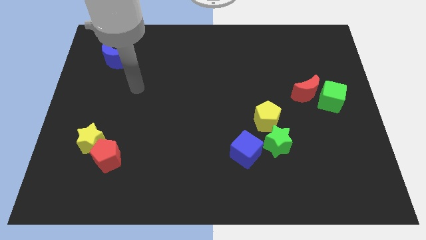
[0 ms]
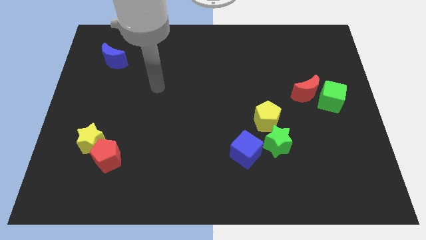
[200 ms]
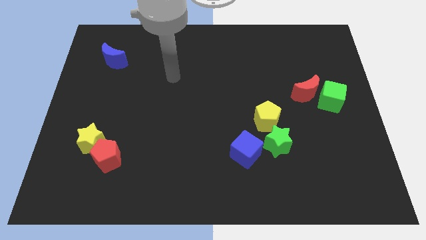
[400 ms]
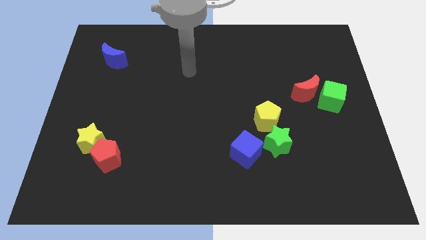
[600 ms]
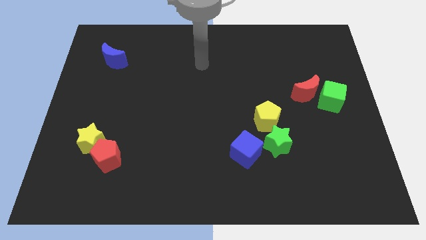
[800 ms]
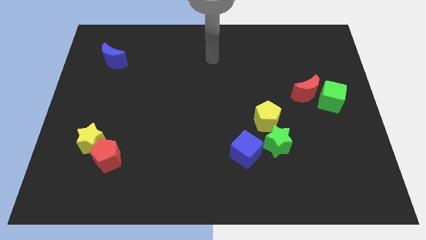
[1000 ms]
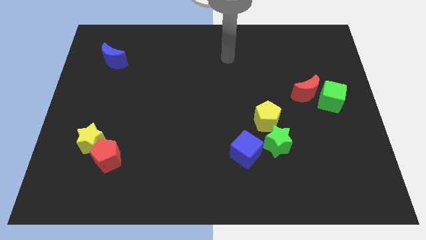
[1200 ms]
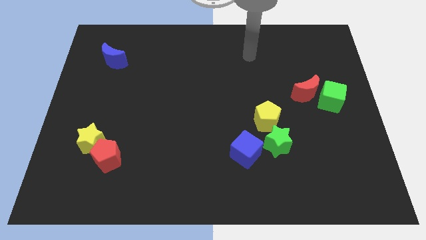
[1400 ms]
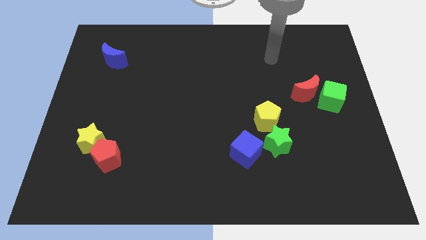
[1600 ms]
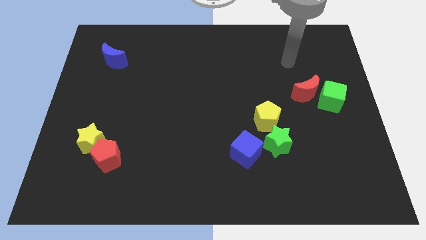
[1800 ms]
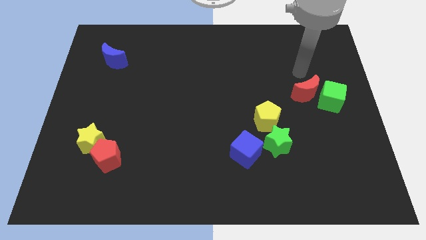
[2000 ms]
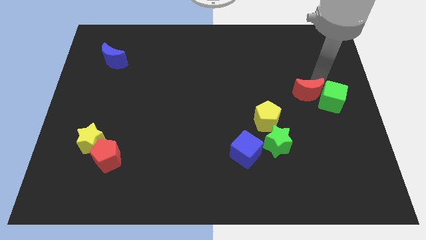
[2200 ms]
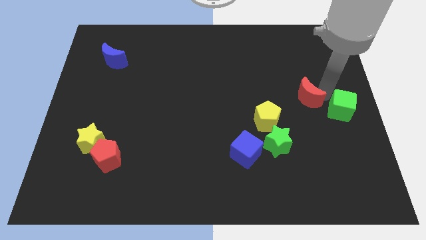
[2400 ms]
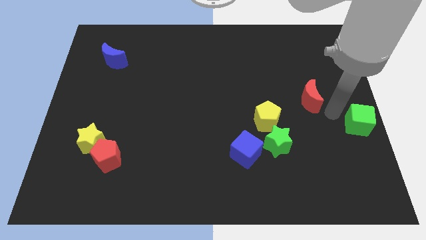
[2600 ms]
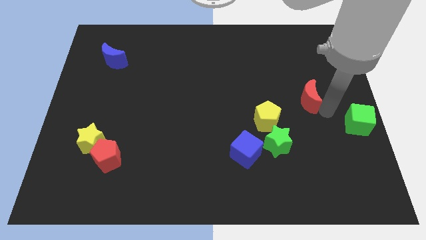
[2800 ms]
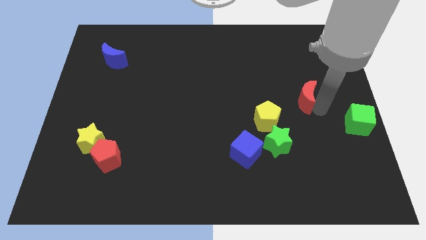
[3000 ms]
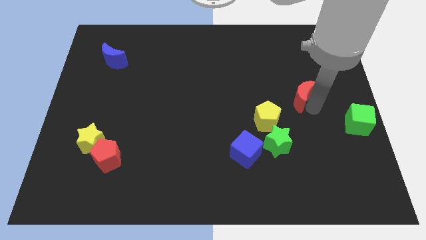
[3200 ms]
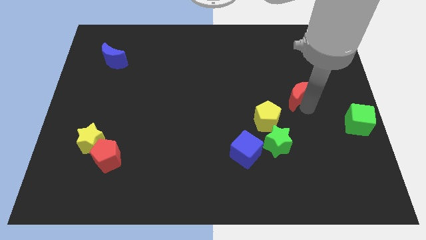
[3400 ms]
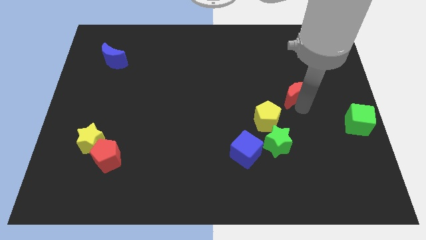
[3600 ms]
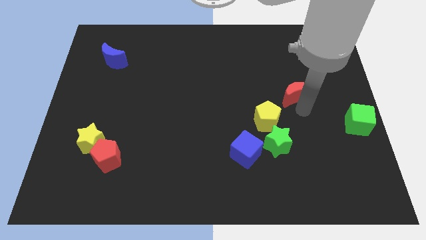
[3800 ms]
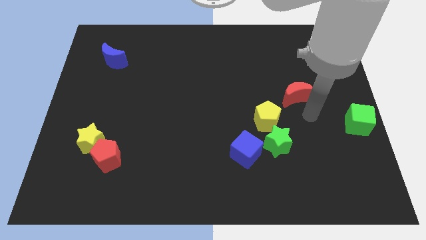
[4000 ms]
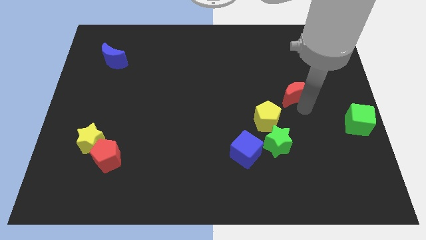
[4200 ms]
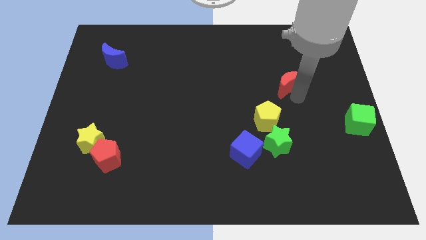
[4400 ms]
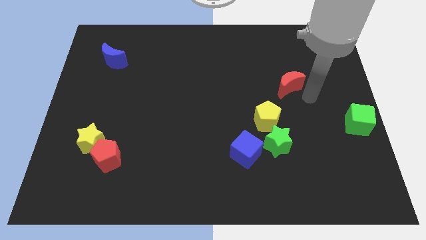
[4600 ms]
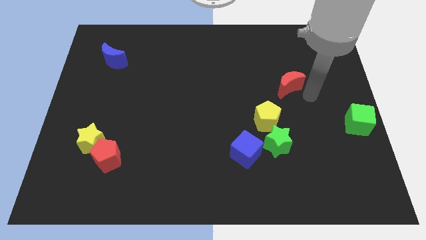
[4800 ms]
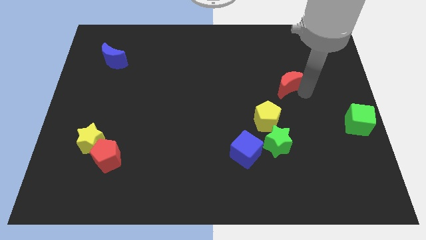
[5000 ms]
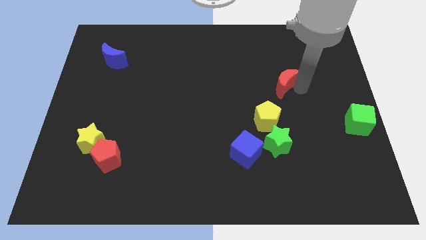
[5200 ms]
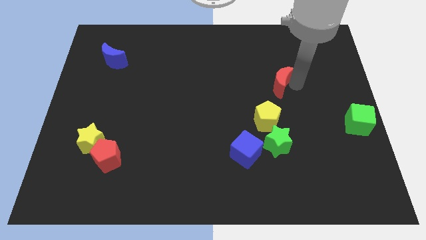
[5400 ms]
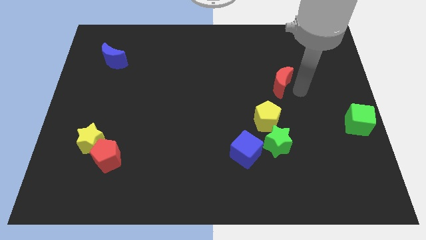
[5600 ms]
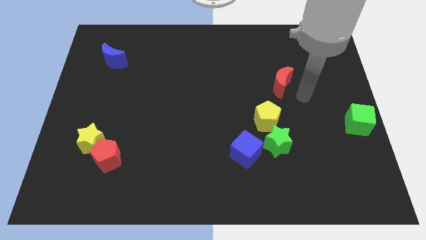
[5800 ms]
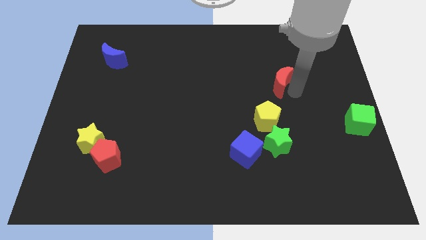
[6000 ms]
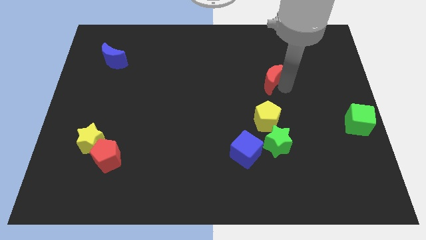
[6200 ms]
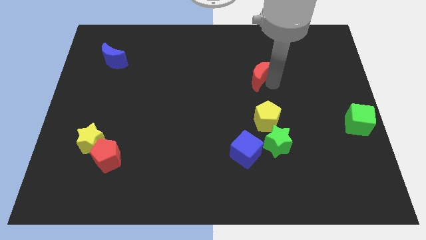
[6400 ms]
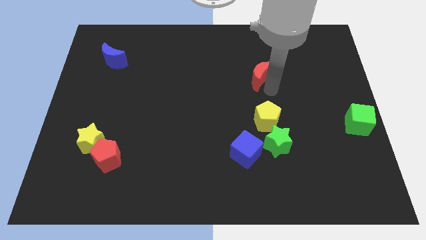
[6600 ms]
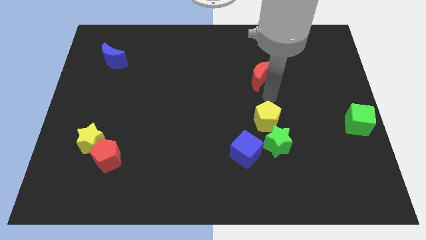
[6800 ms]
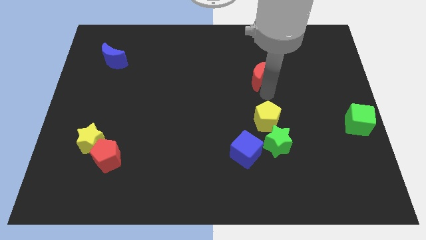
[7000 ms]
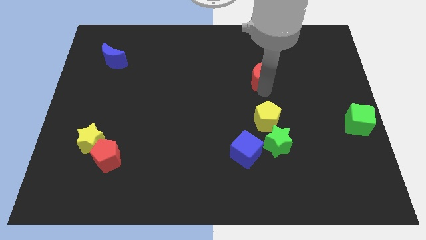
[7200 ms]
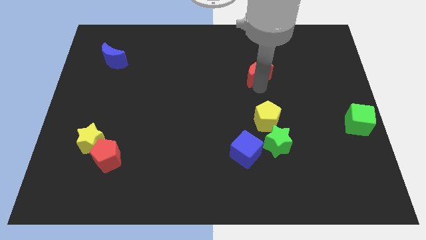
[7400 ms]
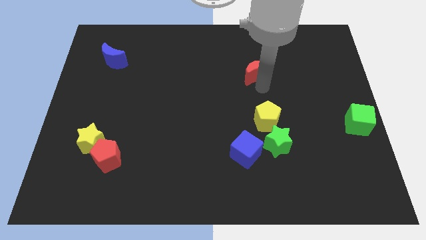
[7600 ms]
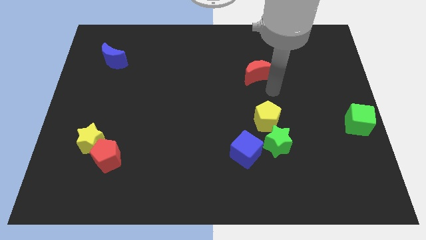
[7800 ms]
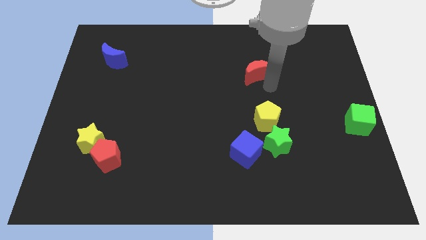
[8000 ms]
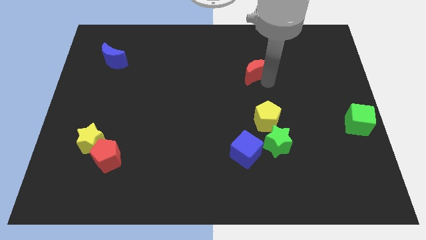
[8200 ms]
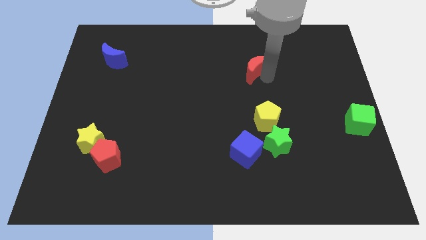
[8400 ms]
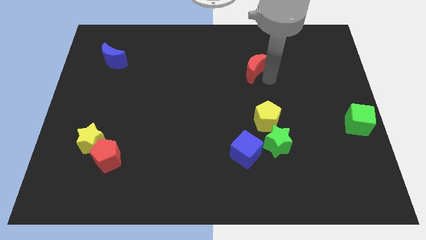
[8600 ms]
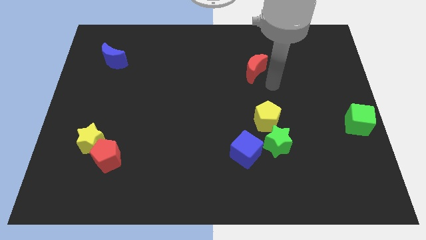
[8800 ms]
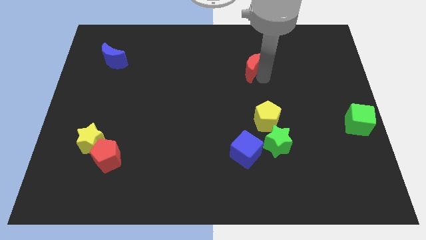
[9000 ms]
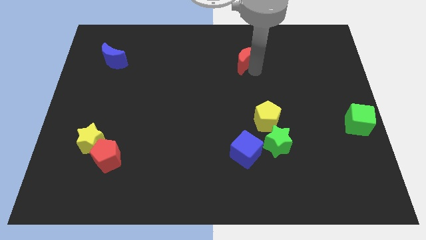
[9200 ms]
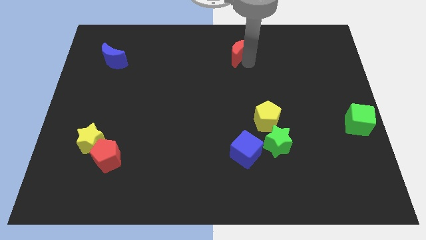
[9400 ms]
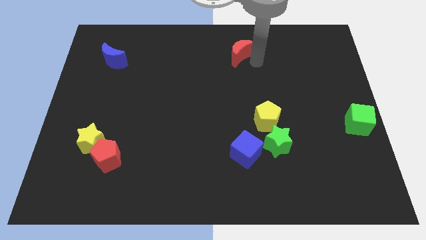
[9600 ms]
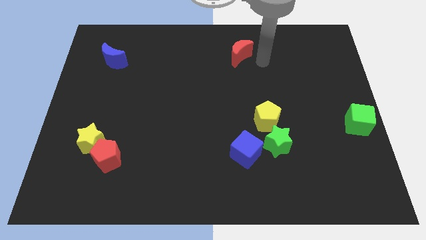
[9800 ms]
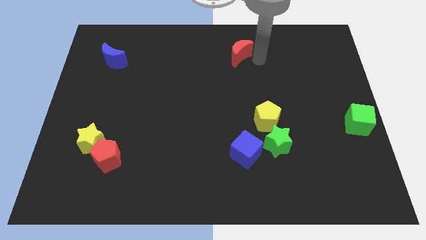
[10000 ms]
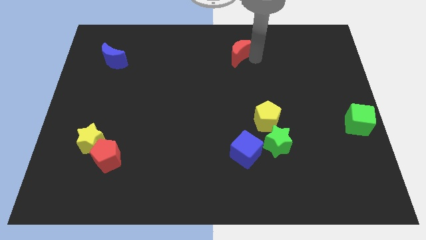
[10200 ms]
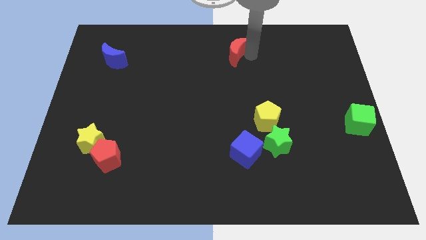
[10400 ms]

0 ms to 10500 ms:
slide the red moon to the towards your base

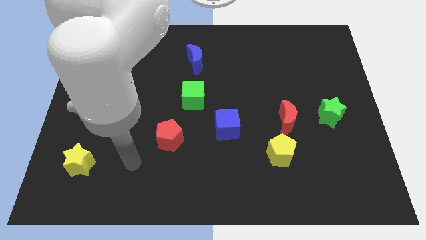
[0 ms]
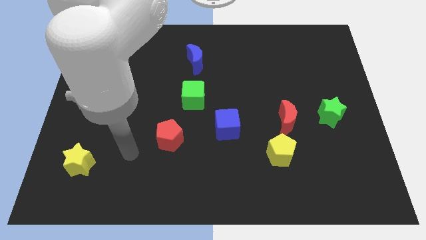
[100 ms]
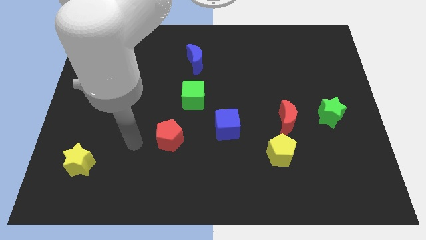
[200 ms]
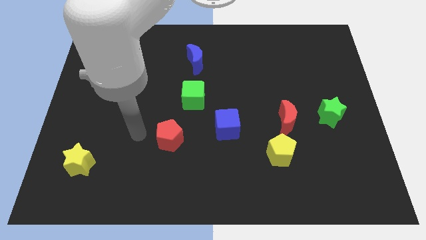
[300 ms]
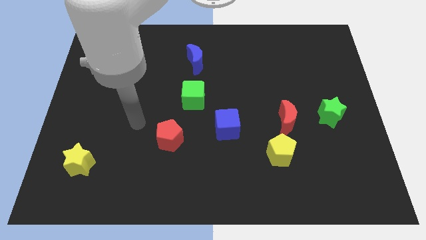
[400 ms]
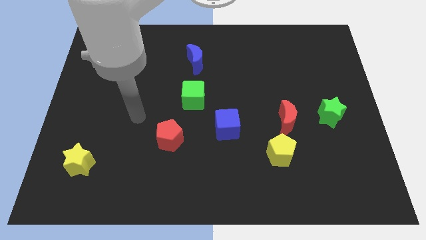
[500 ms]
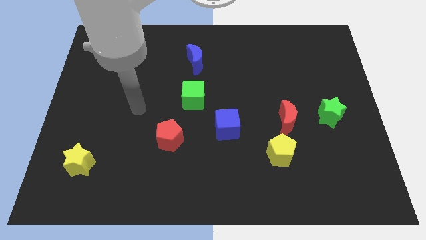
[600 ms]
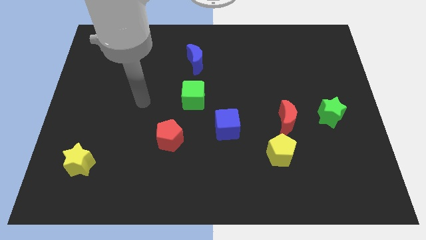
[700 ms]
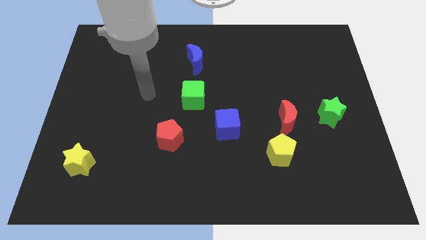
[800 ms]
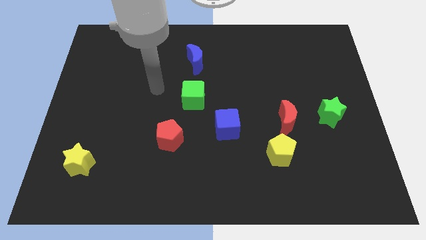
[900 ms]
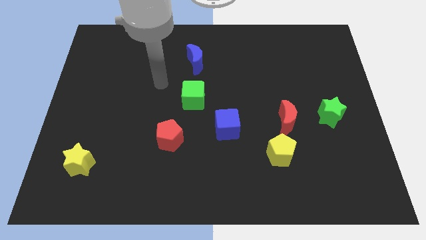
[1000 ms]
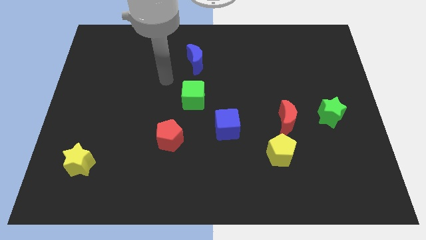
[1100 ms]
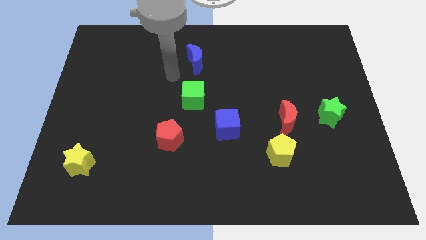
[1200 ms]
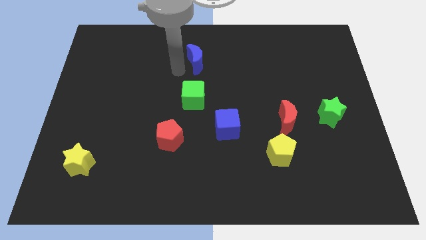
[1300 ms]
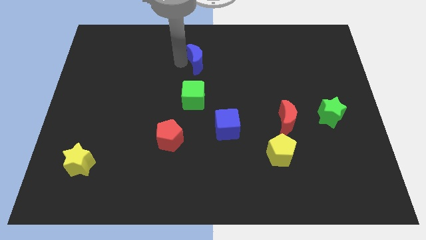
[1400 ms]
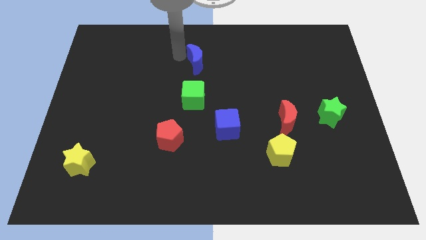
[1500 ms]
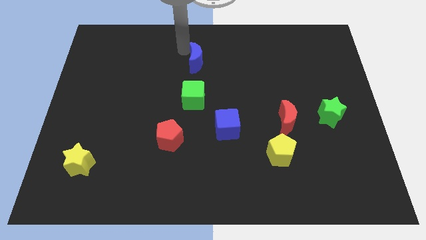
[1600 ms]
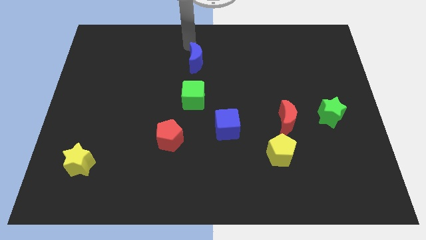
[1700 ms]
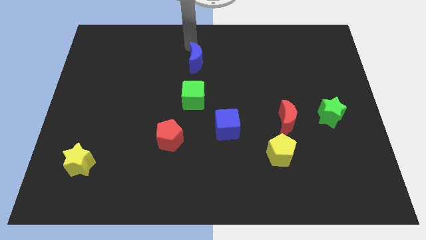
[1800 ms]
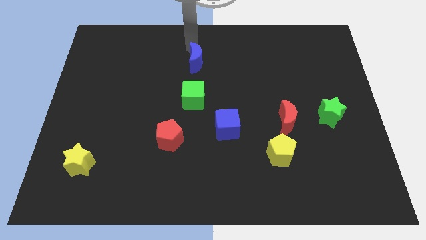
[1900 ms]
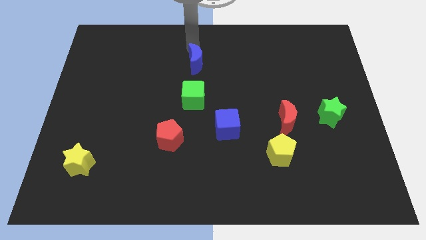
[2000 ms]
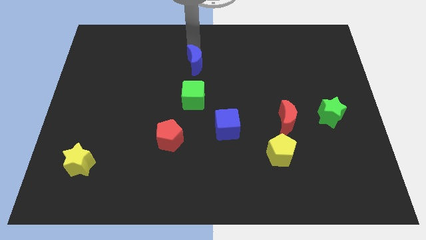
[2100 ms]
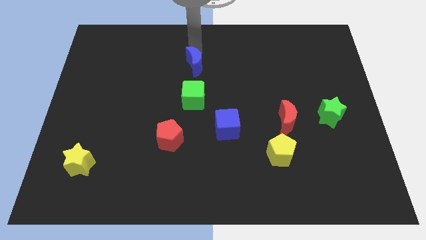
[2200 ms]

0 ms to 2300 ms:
push the blue moon to the middle
